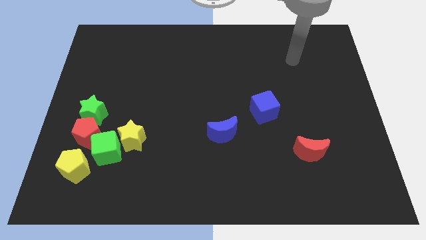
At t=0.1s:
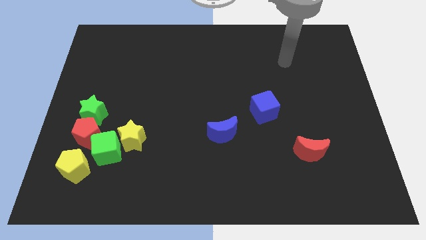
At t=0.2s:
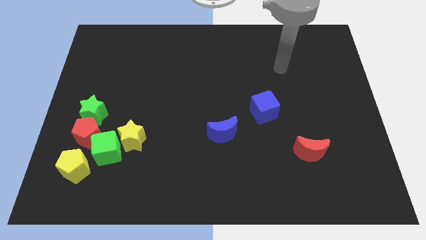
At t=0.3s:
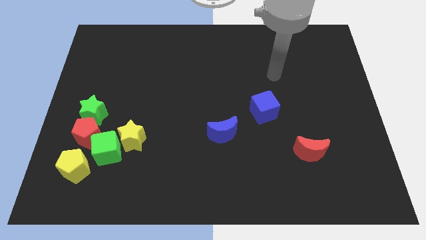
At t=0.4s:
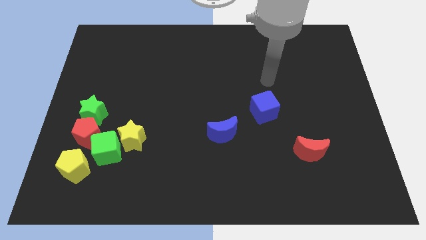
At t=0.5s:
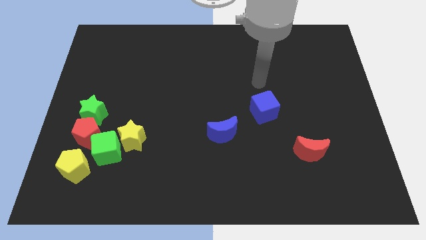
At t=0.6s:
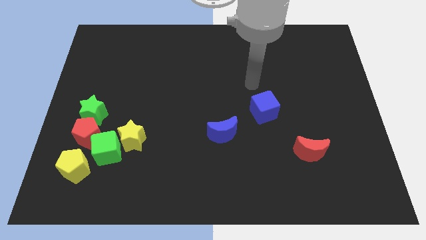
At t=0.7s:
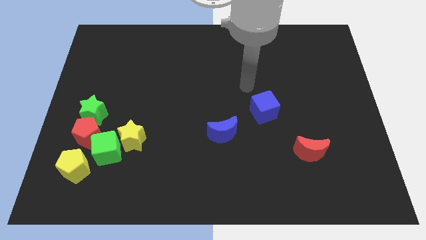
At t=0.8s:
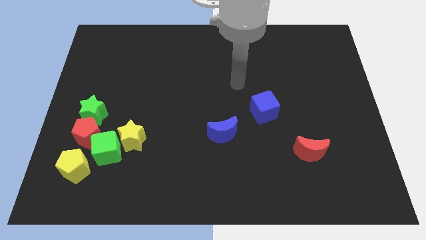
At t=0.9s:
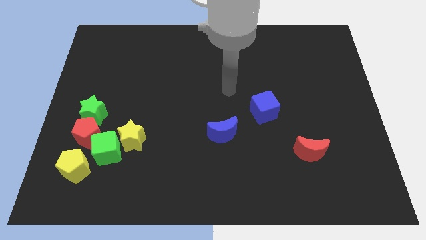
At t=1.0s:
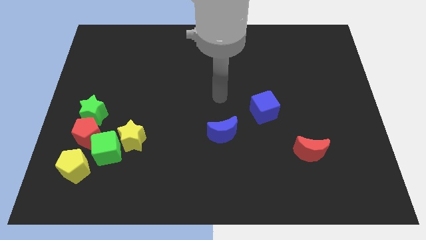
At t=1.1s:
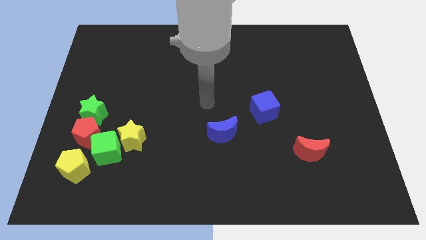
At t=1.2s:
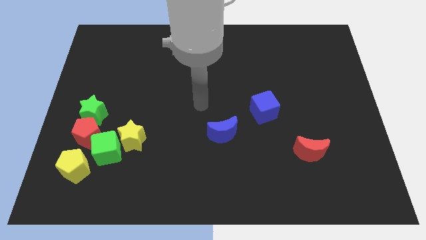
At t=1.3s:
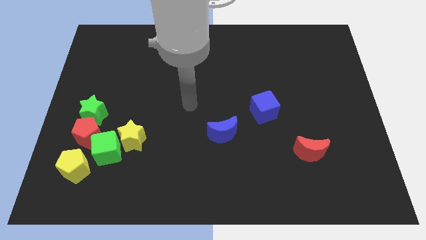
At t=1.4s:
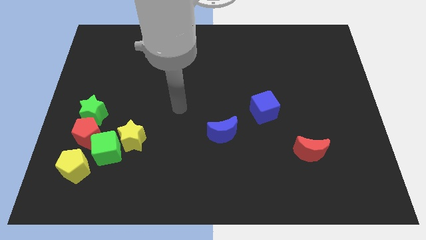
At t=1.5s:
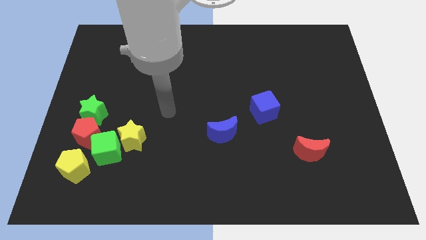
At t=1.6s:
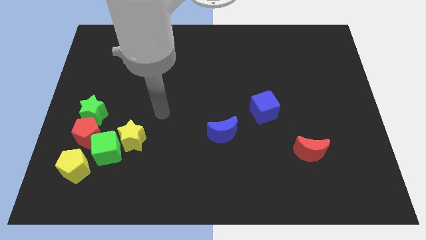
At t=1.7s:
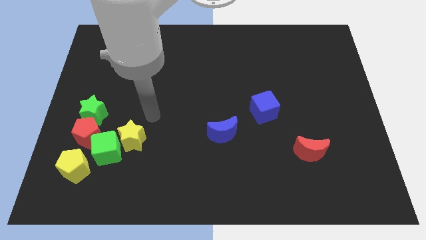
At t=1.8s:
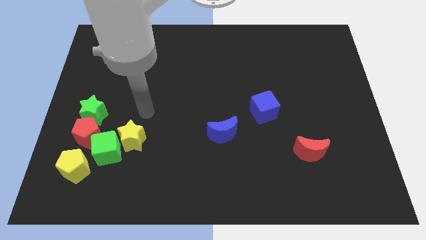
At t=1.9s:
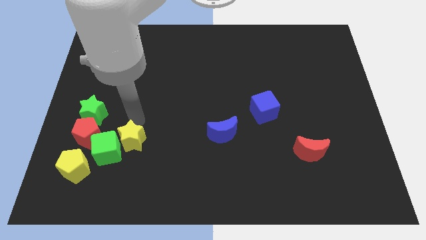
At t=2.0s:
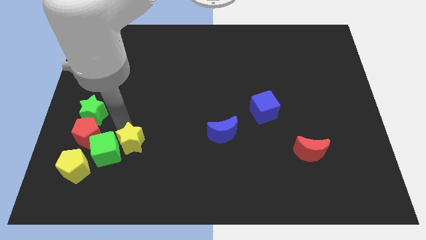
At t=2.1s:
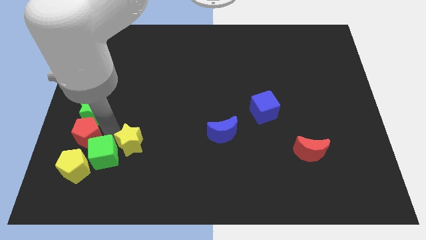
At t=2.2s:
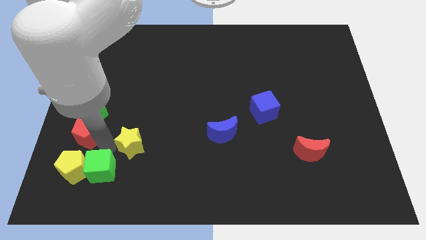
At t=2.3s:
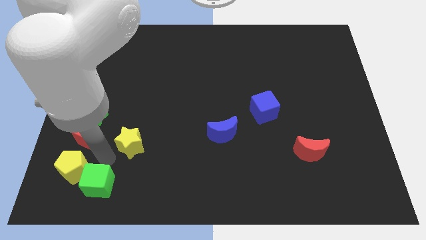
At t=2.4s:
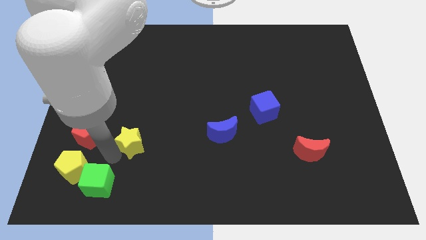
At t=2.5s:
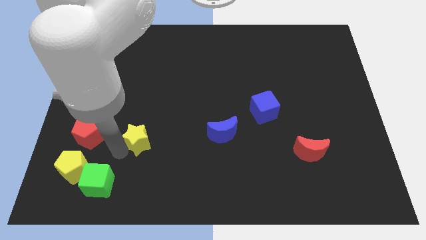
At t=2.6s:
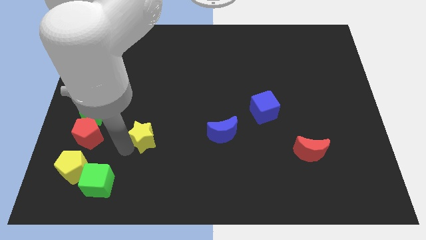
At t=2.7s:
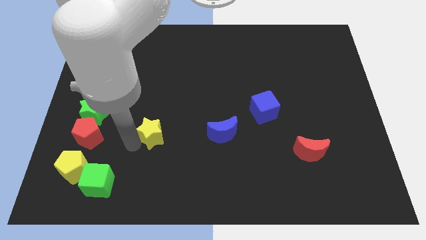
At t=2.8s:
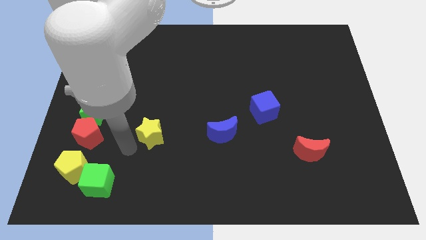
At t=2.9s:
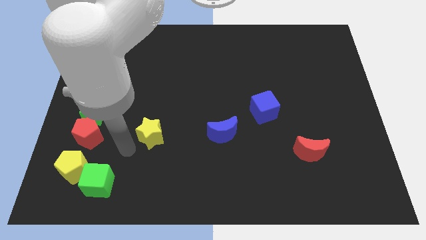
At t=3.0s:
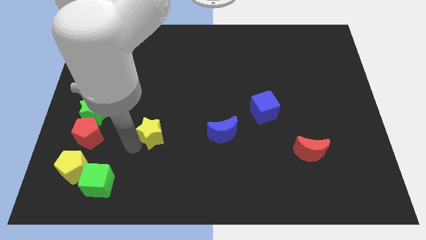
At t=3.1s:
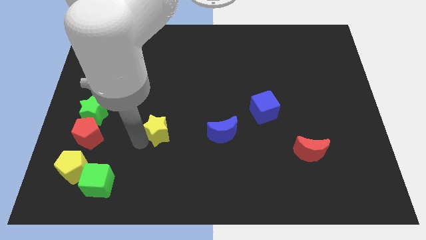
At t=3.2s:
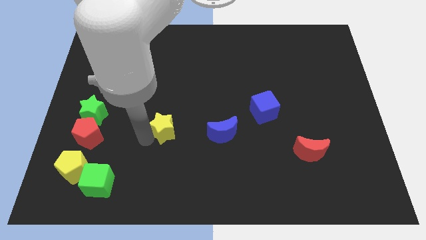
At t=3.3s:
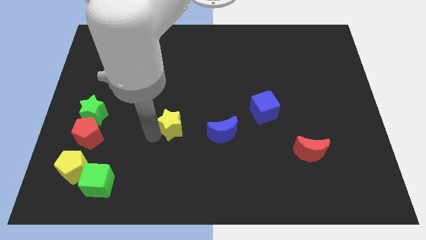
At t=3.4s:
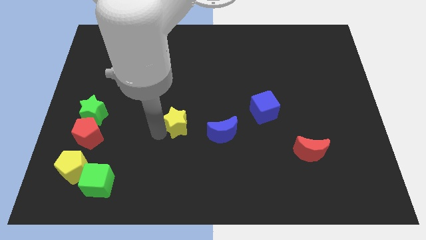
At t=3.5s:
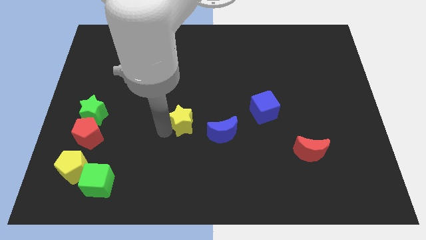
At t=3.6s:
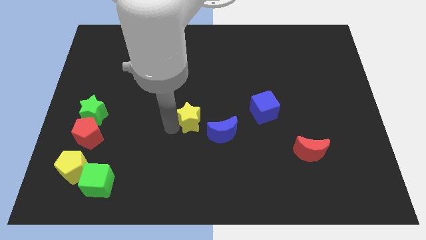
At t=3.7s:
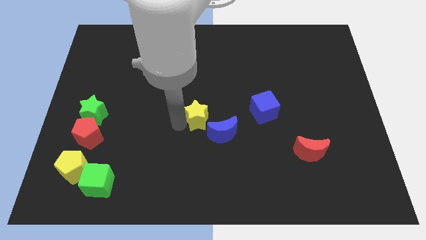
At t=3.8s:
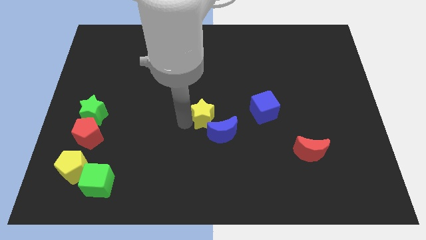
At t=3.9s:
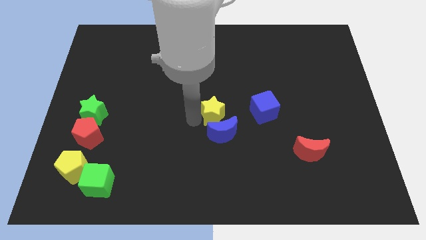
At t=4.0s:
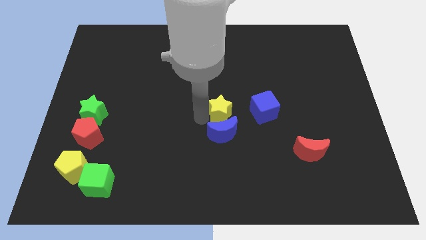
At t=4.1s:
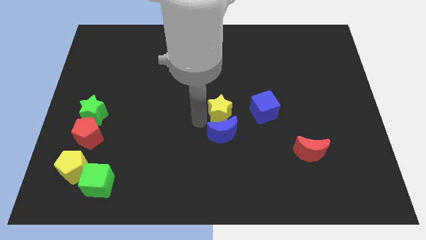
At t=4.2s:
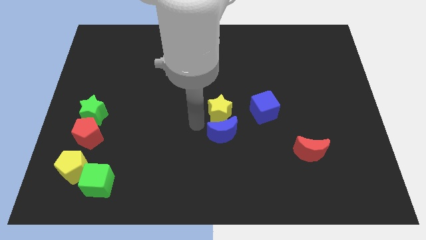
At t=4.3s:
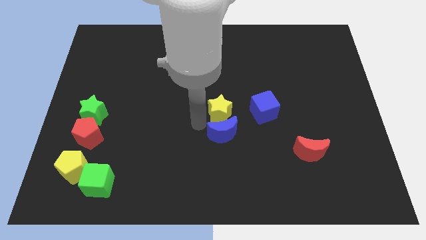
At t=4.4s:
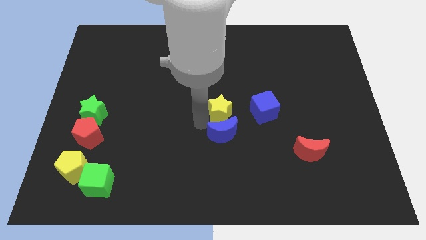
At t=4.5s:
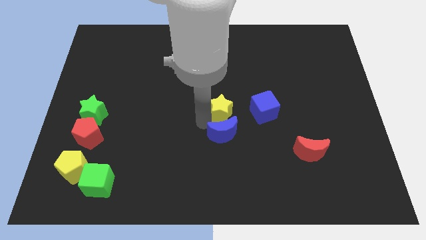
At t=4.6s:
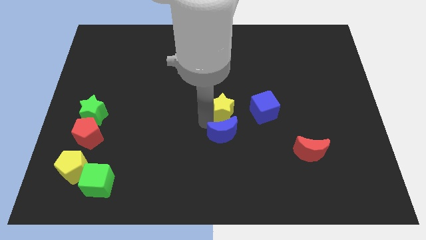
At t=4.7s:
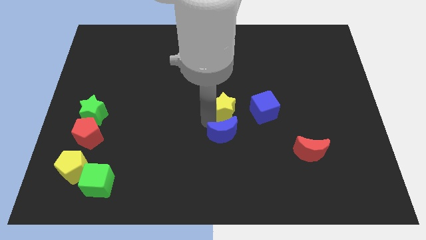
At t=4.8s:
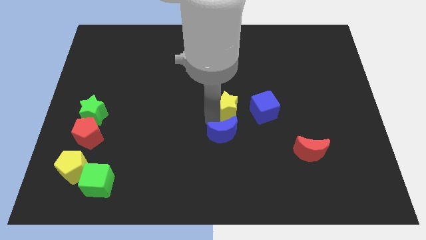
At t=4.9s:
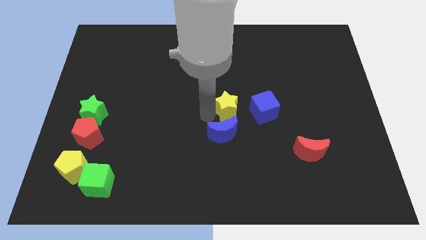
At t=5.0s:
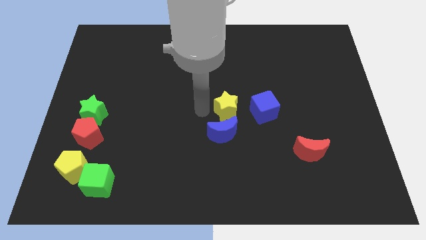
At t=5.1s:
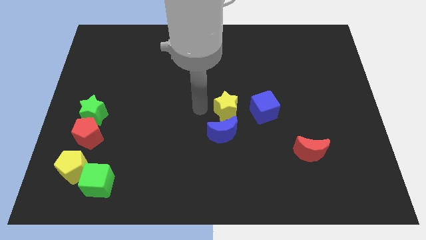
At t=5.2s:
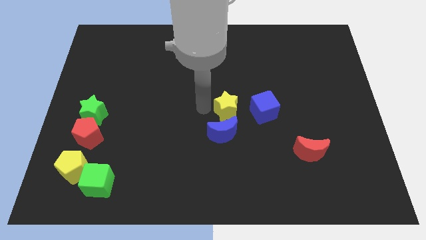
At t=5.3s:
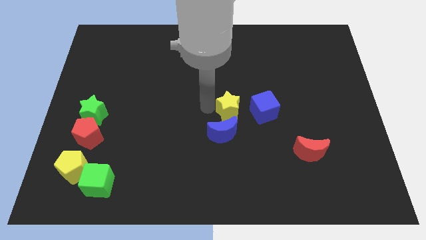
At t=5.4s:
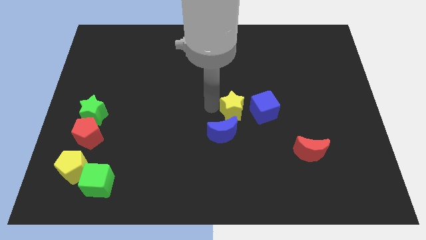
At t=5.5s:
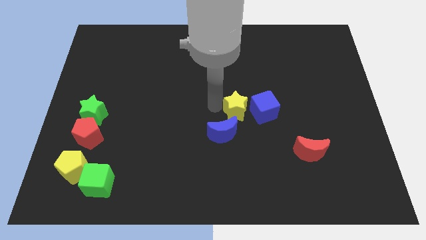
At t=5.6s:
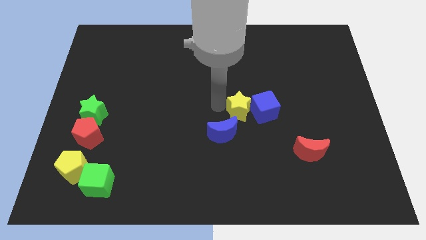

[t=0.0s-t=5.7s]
move the yellow star next to the blue cube

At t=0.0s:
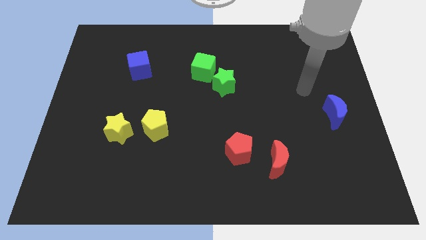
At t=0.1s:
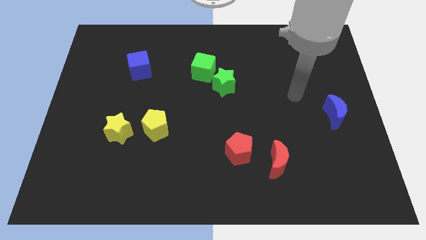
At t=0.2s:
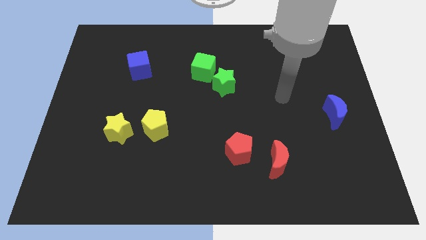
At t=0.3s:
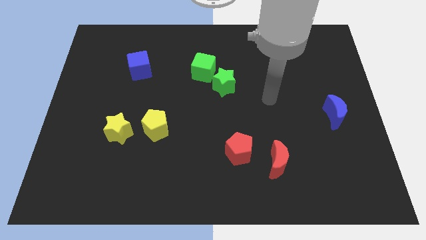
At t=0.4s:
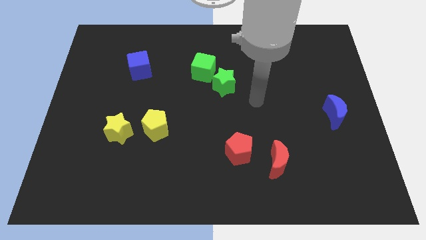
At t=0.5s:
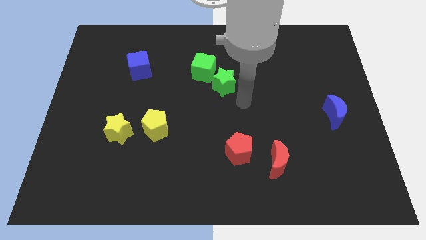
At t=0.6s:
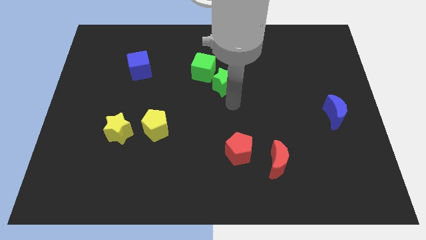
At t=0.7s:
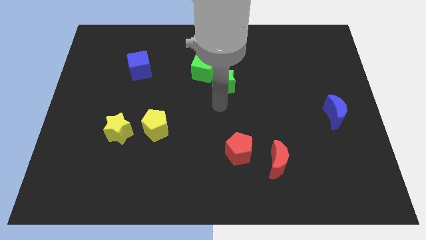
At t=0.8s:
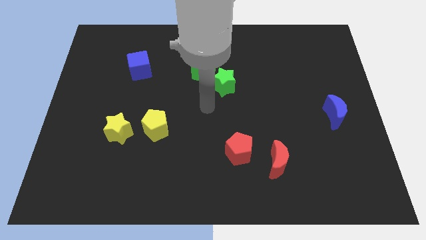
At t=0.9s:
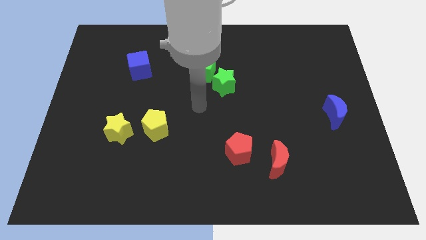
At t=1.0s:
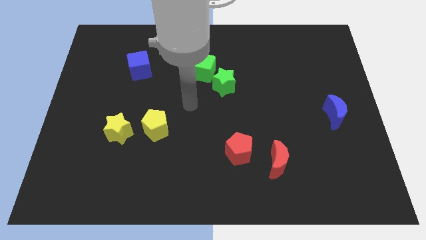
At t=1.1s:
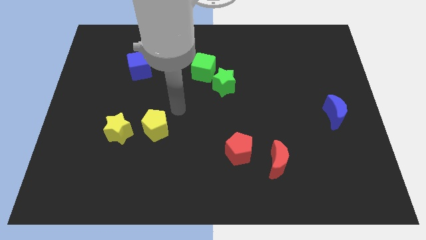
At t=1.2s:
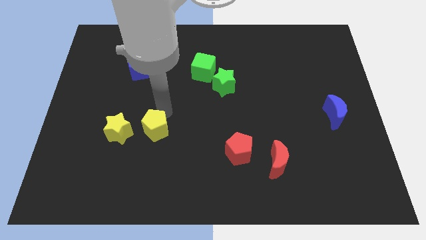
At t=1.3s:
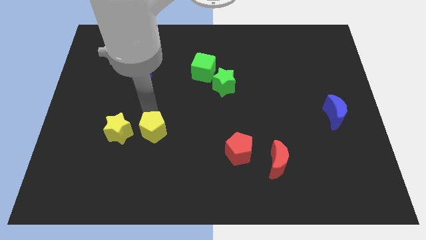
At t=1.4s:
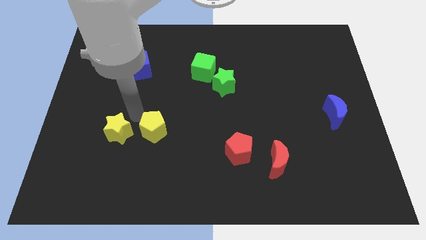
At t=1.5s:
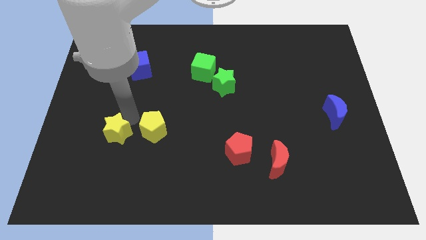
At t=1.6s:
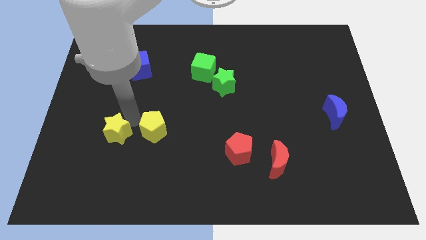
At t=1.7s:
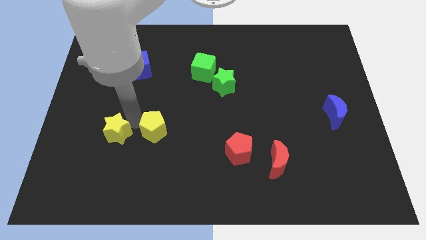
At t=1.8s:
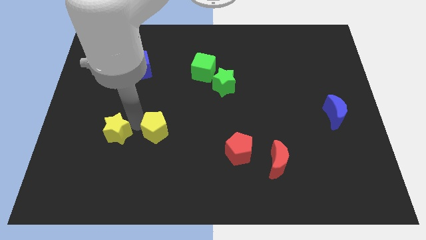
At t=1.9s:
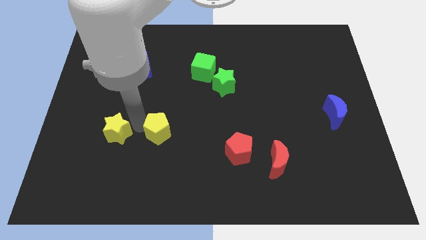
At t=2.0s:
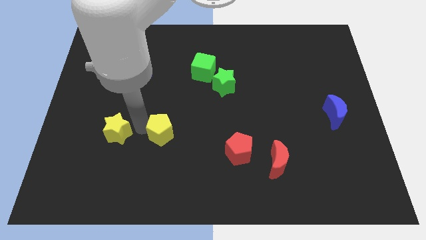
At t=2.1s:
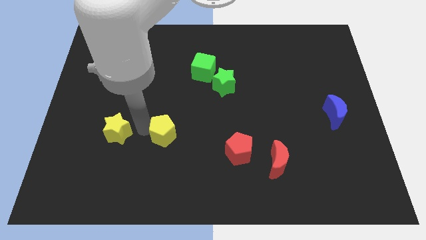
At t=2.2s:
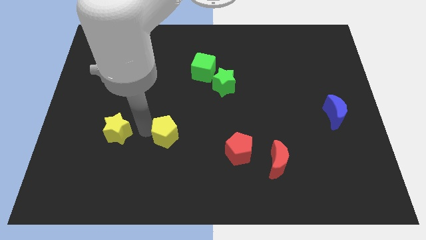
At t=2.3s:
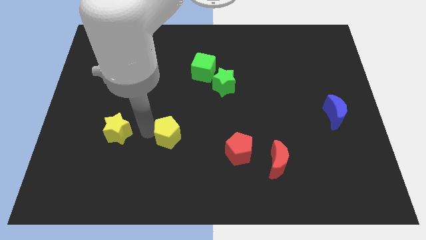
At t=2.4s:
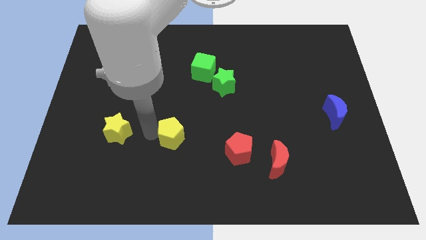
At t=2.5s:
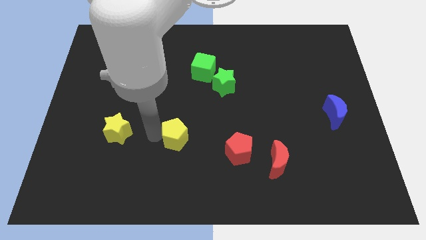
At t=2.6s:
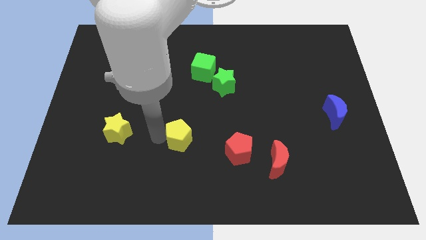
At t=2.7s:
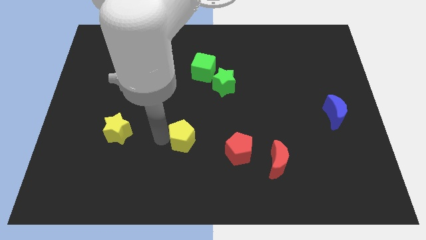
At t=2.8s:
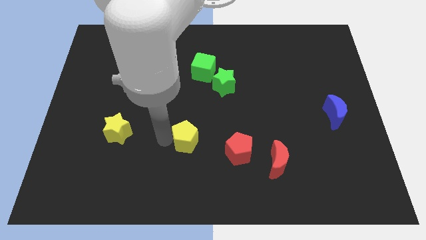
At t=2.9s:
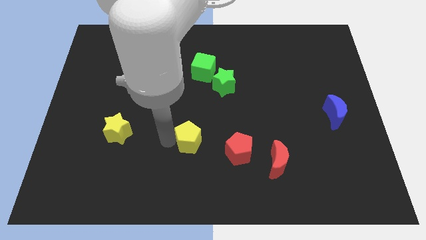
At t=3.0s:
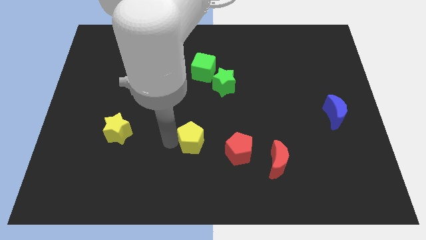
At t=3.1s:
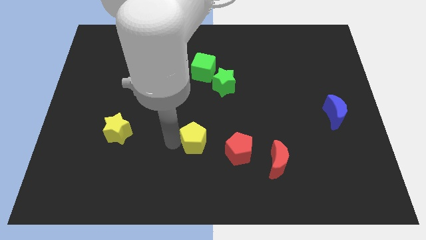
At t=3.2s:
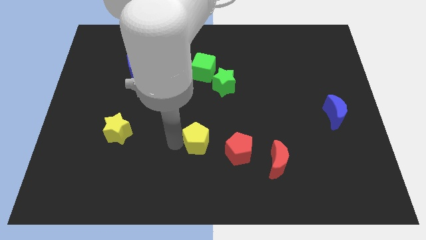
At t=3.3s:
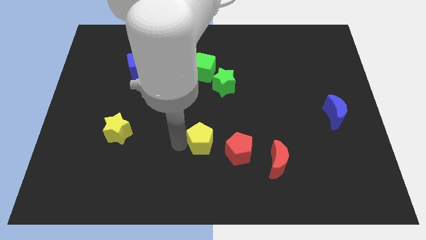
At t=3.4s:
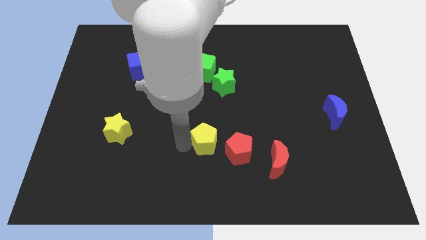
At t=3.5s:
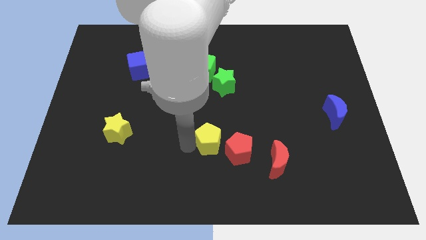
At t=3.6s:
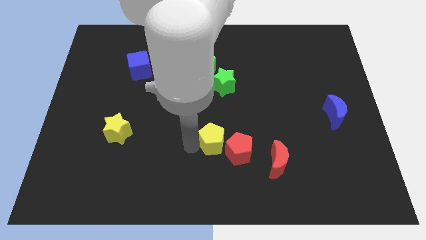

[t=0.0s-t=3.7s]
slide the yellow pentagon to the red pentagon
